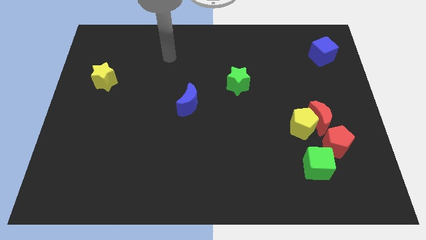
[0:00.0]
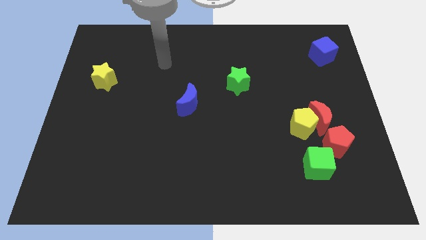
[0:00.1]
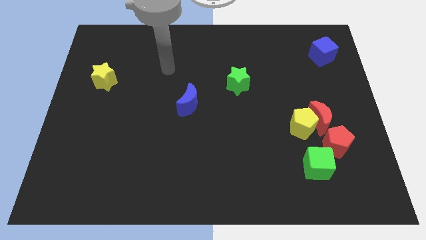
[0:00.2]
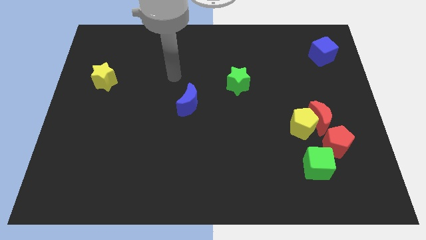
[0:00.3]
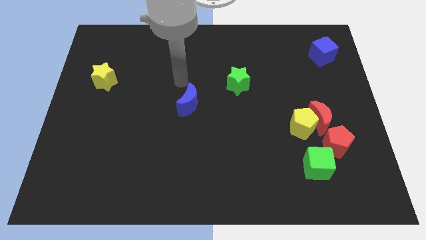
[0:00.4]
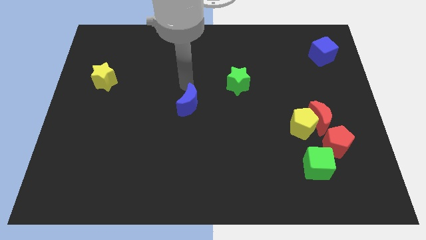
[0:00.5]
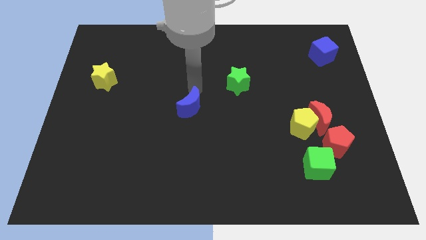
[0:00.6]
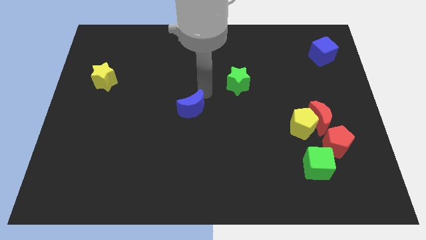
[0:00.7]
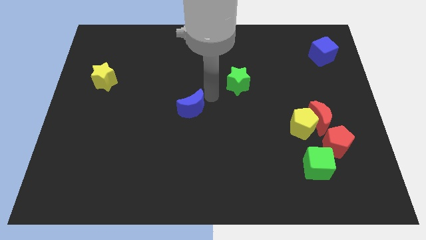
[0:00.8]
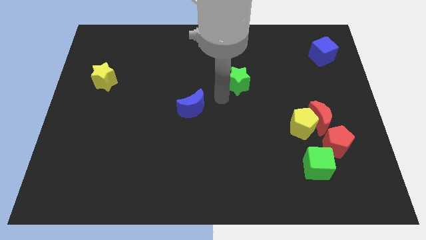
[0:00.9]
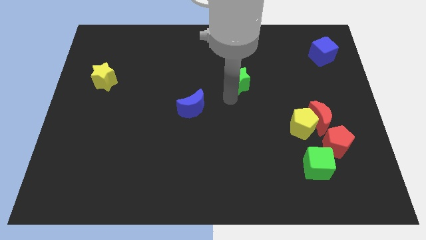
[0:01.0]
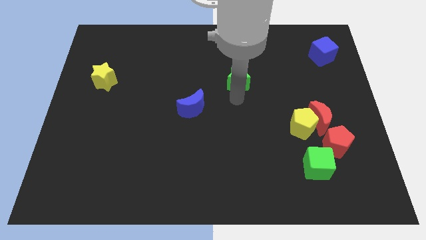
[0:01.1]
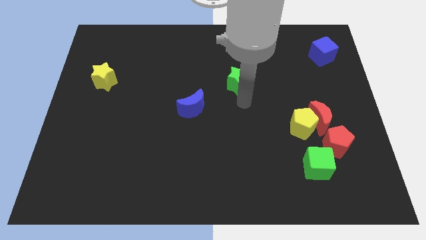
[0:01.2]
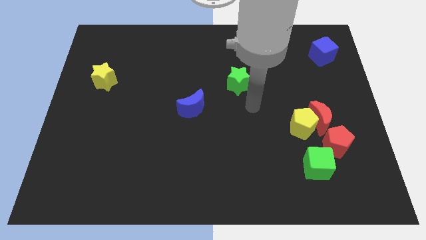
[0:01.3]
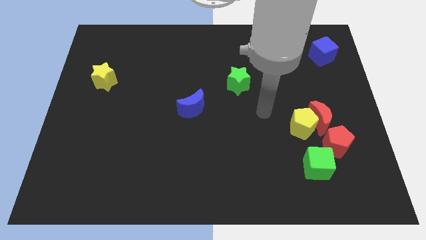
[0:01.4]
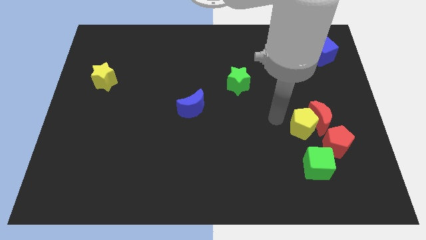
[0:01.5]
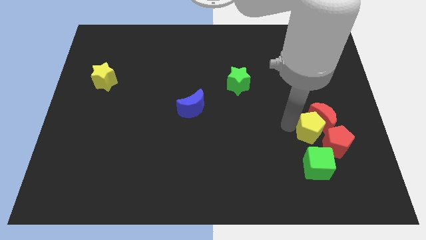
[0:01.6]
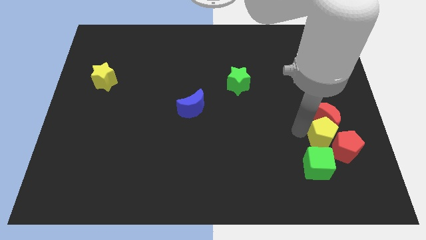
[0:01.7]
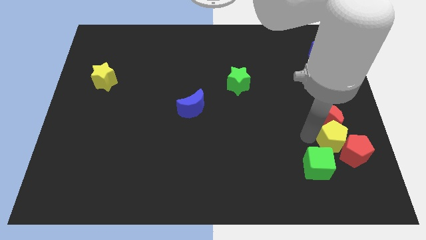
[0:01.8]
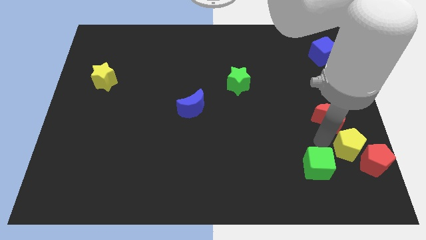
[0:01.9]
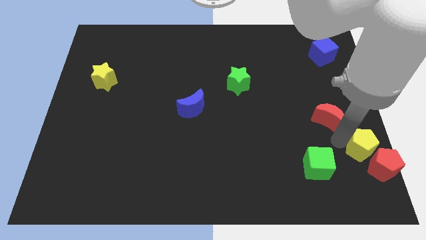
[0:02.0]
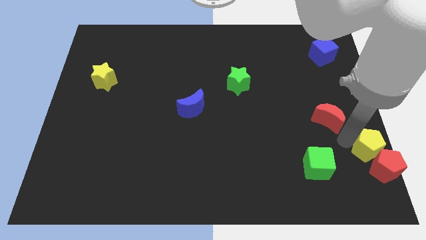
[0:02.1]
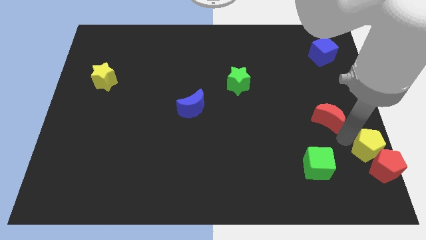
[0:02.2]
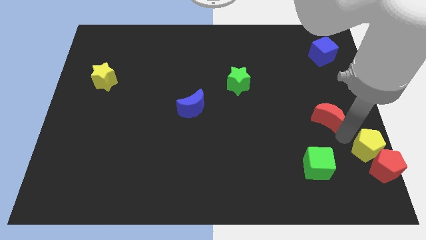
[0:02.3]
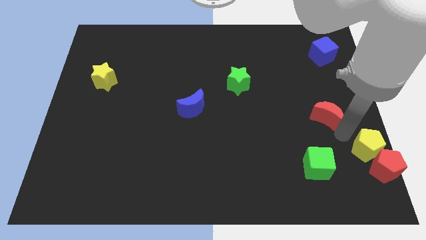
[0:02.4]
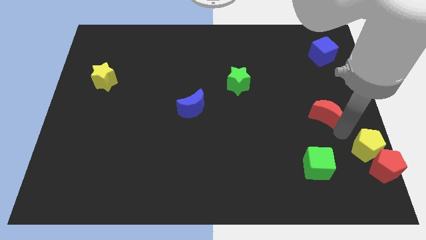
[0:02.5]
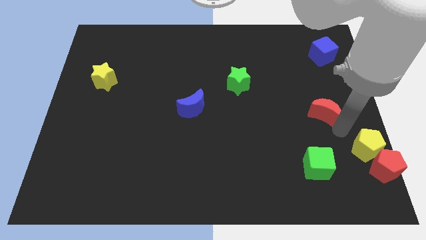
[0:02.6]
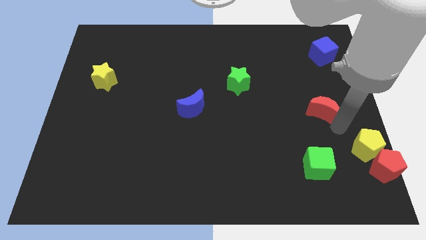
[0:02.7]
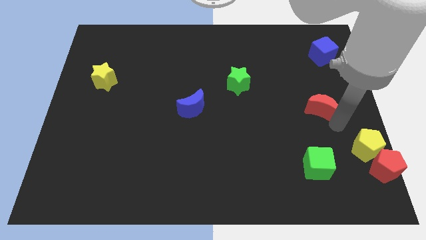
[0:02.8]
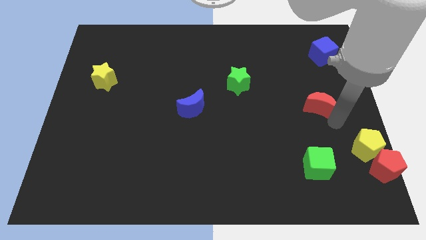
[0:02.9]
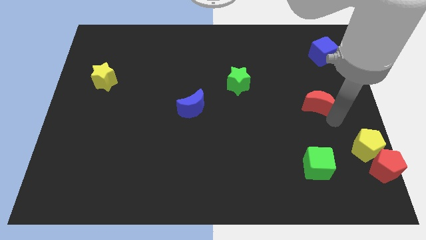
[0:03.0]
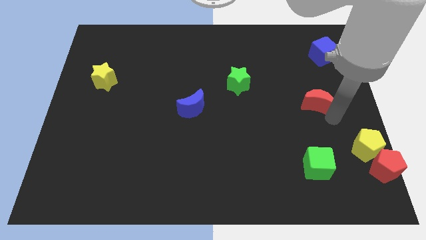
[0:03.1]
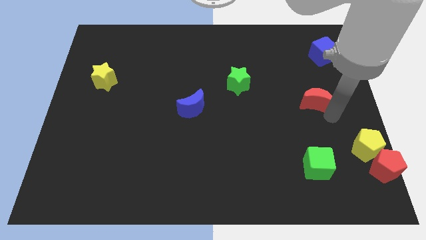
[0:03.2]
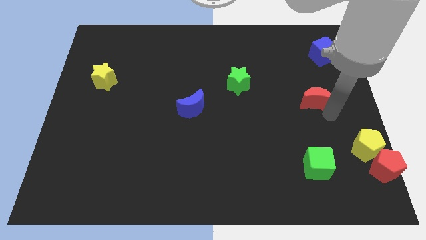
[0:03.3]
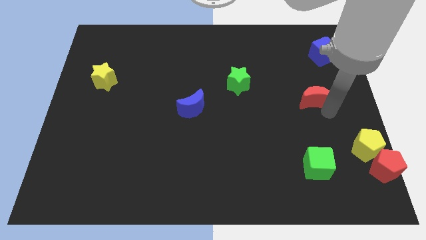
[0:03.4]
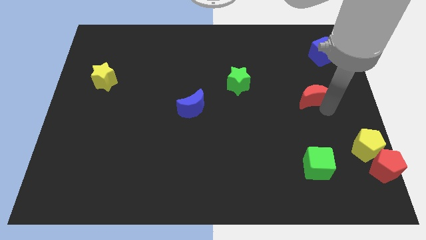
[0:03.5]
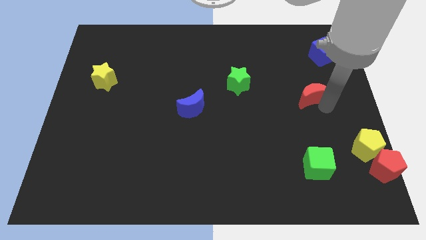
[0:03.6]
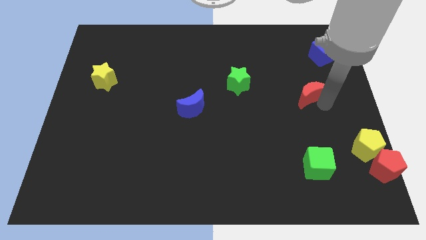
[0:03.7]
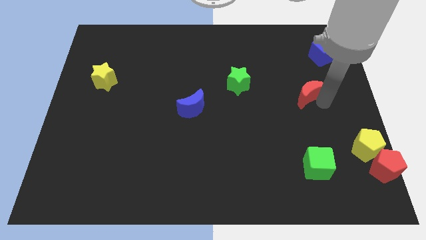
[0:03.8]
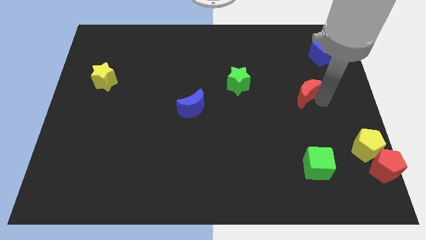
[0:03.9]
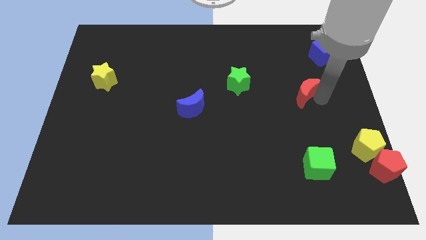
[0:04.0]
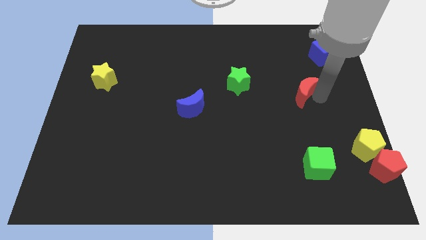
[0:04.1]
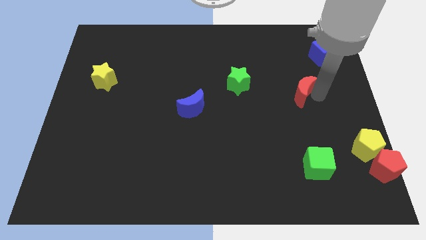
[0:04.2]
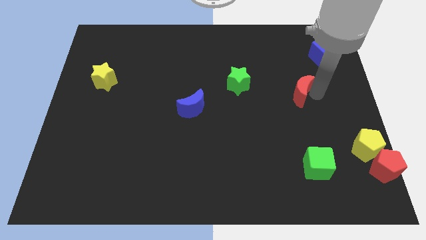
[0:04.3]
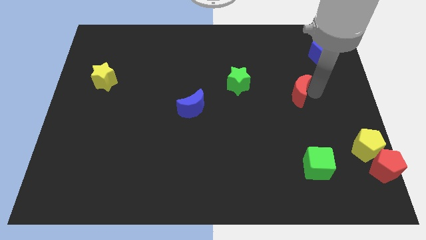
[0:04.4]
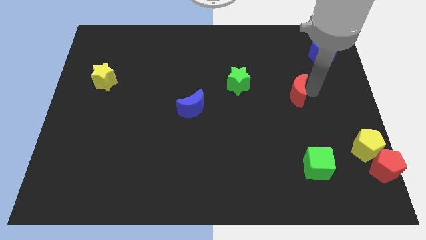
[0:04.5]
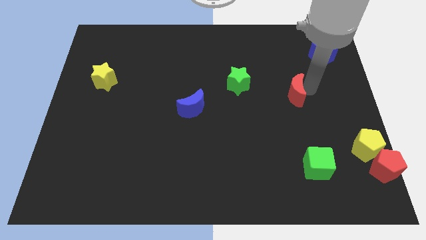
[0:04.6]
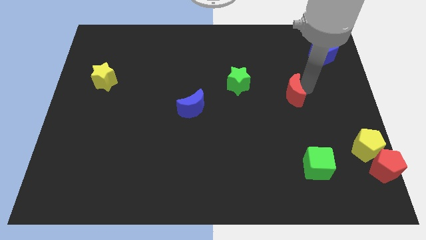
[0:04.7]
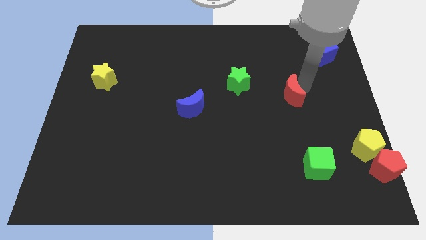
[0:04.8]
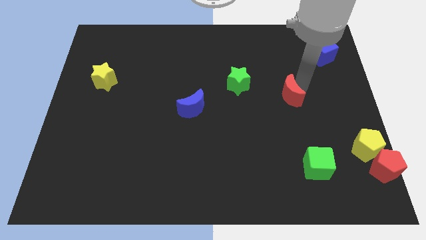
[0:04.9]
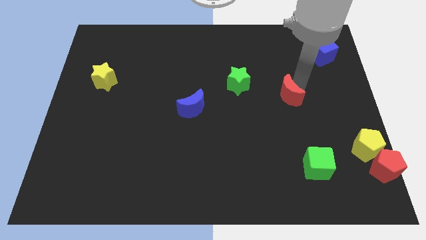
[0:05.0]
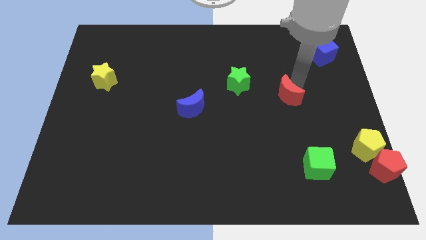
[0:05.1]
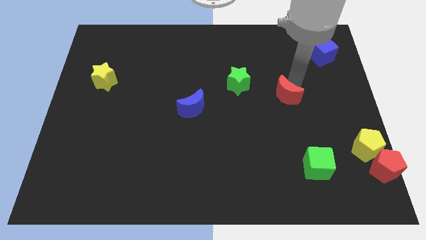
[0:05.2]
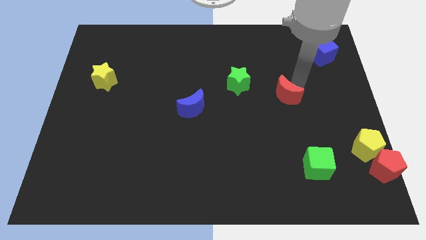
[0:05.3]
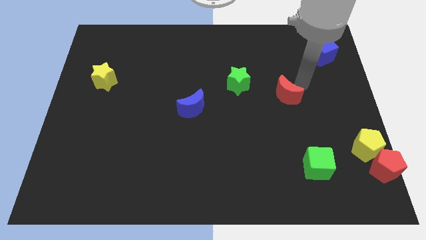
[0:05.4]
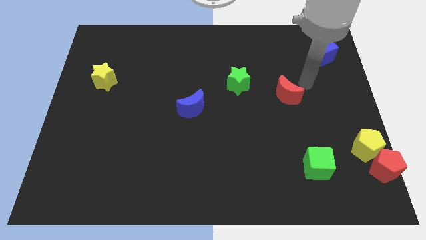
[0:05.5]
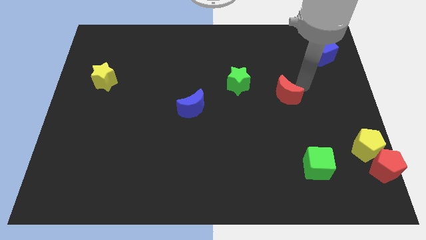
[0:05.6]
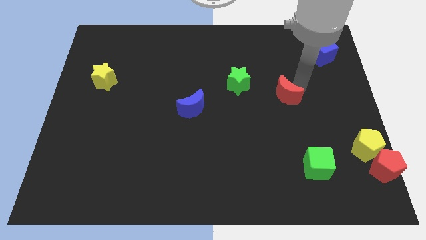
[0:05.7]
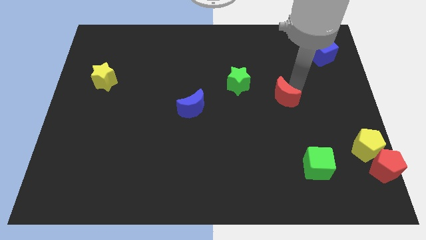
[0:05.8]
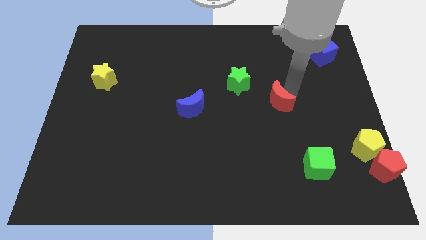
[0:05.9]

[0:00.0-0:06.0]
slide the red moon to the left slightly

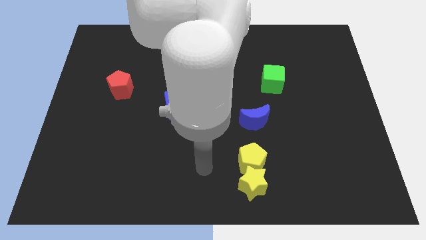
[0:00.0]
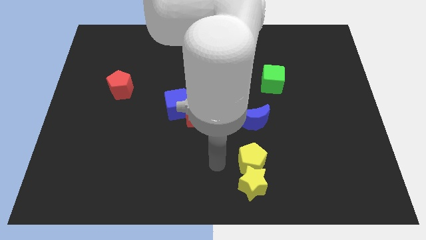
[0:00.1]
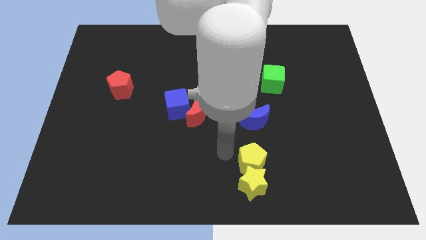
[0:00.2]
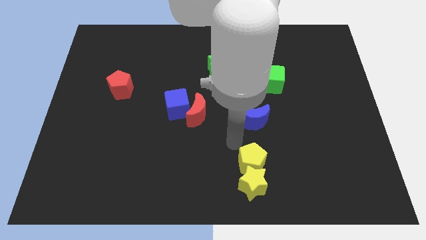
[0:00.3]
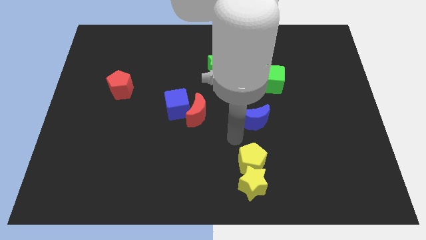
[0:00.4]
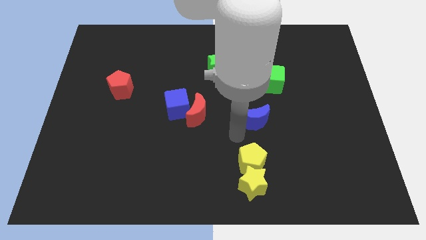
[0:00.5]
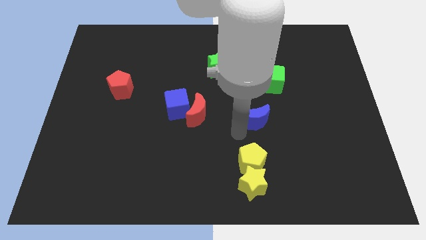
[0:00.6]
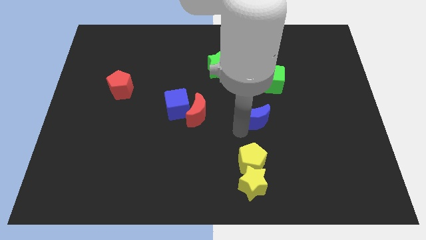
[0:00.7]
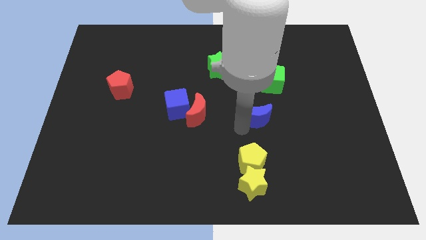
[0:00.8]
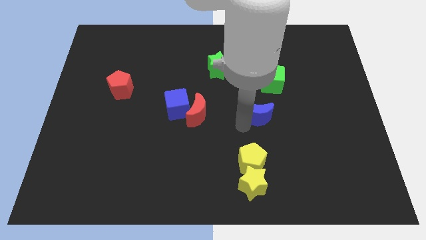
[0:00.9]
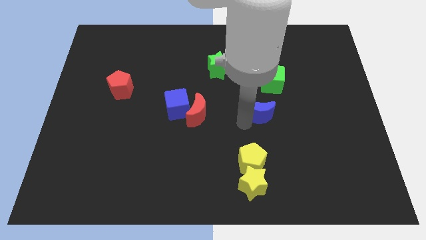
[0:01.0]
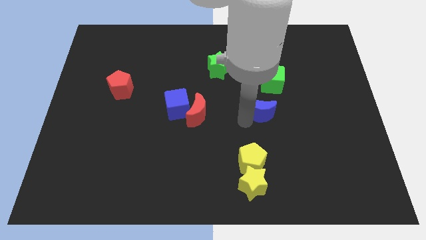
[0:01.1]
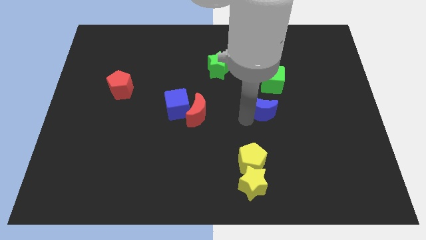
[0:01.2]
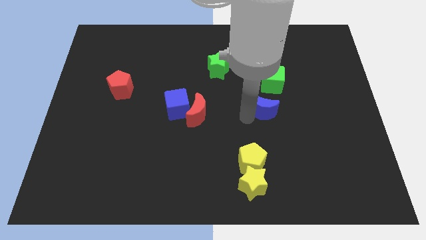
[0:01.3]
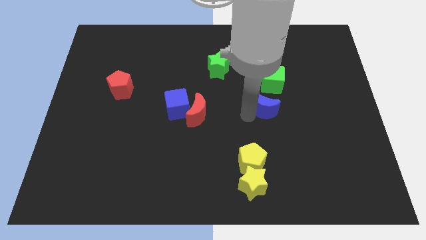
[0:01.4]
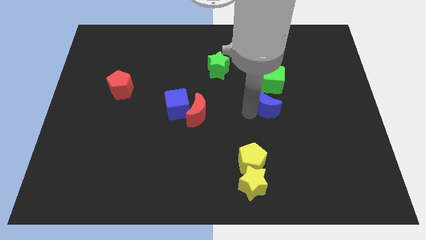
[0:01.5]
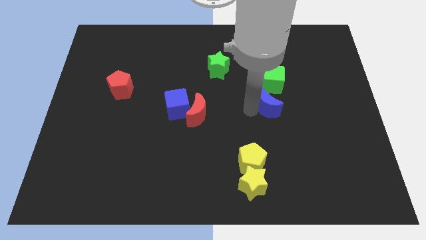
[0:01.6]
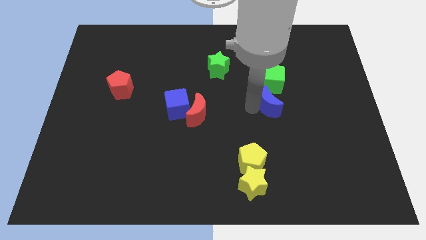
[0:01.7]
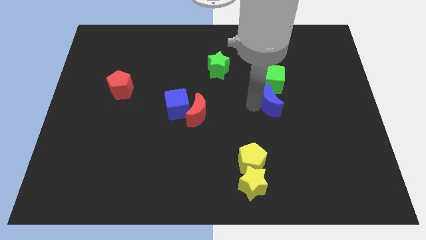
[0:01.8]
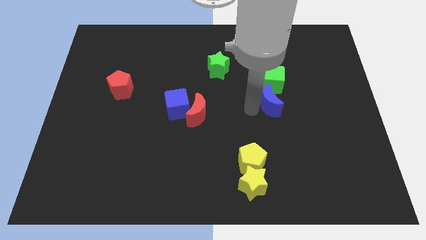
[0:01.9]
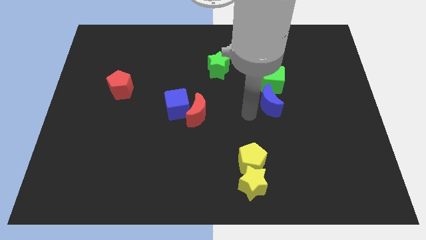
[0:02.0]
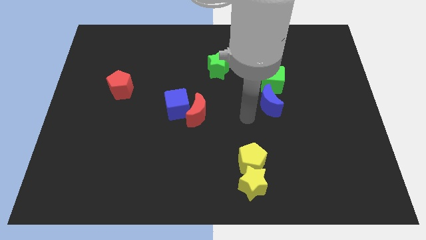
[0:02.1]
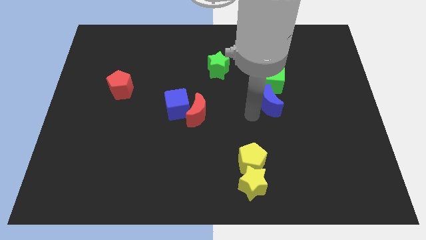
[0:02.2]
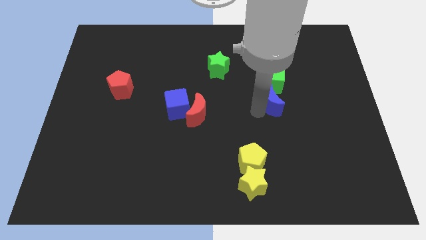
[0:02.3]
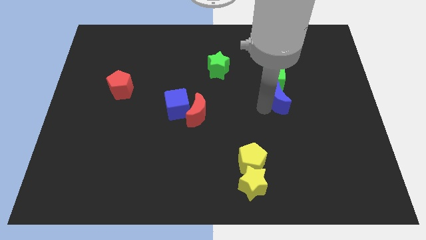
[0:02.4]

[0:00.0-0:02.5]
push the blue moon a bit upwards and right diagonally

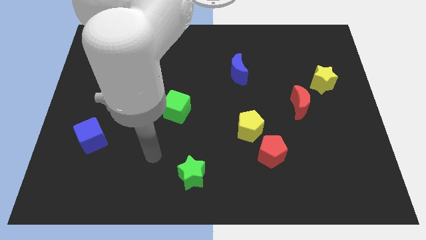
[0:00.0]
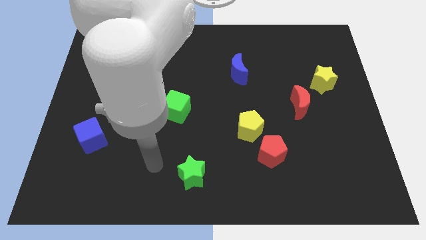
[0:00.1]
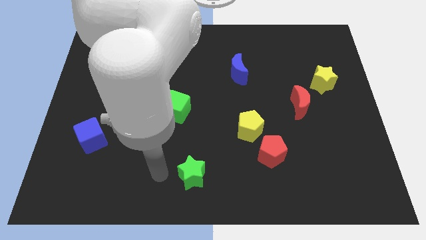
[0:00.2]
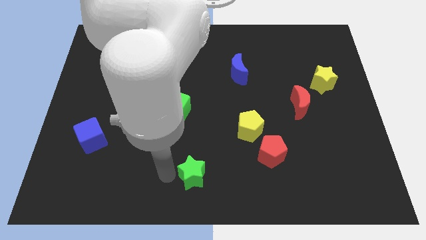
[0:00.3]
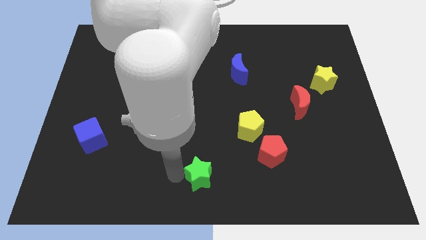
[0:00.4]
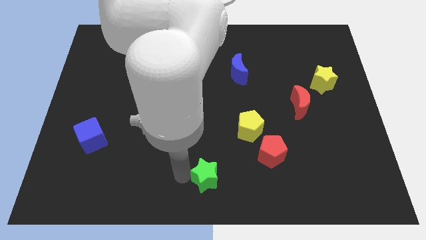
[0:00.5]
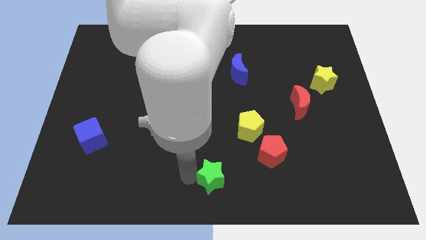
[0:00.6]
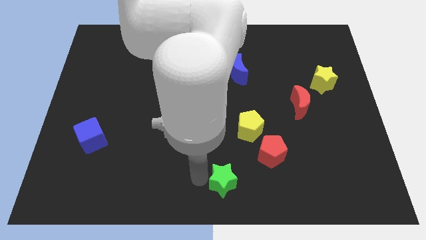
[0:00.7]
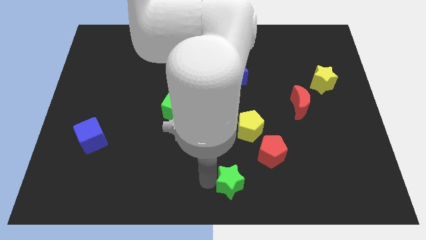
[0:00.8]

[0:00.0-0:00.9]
slightly push the green star right
